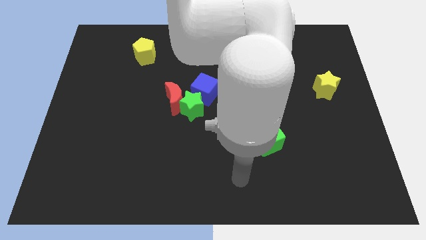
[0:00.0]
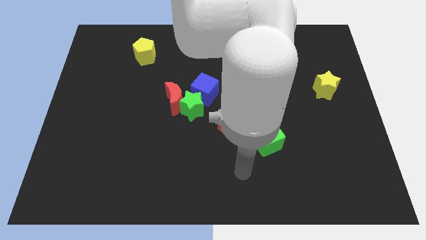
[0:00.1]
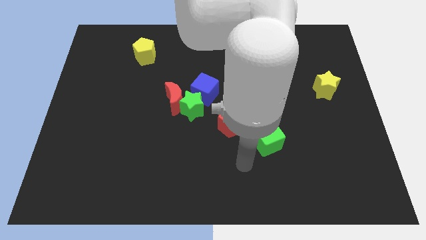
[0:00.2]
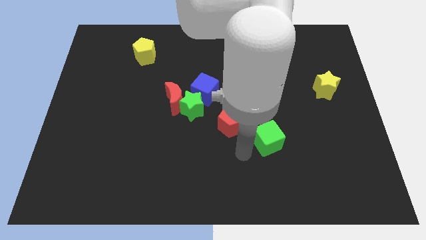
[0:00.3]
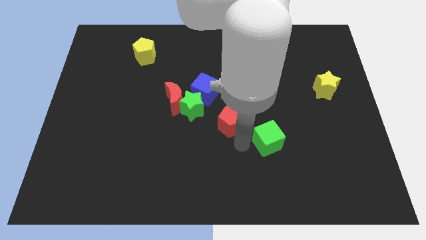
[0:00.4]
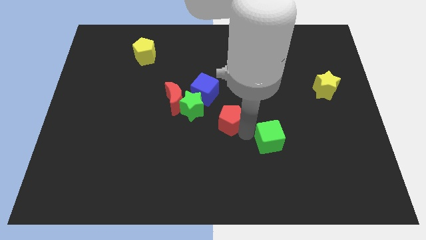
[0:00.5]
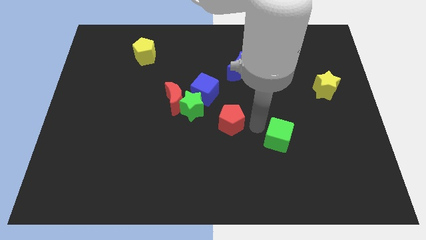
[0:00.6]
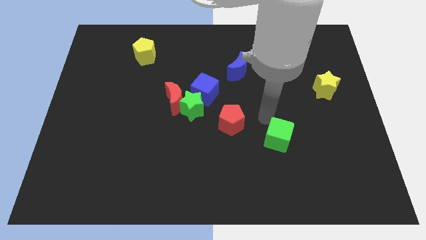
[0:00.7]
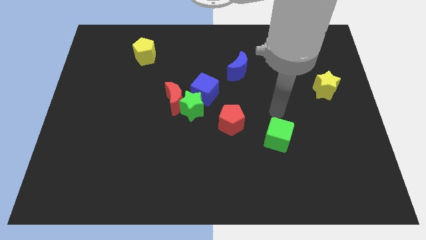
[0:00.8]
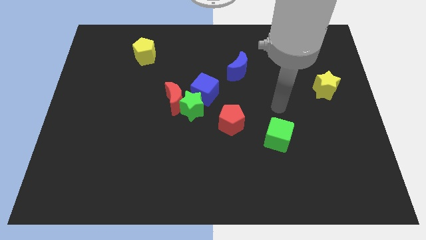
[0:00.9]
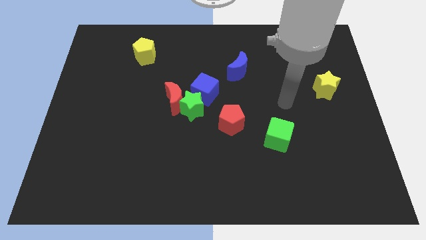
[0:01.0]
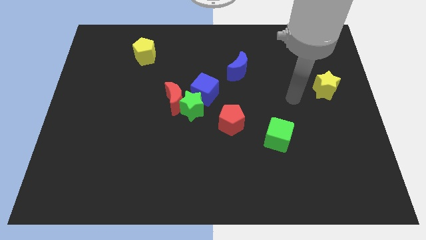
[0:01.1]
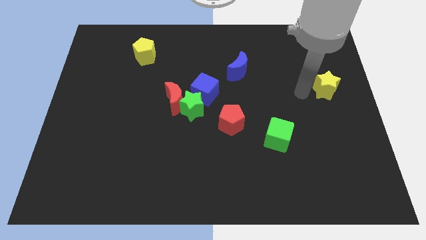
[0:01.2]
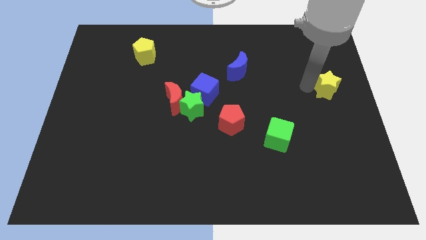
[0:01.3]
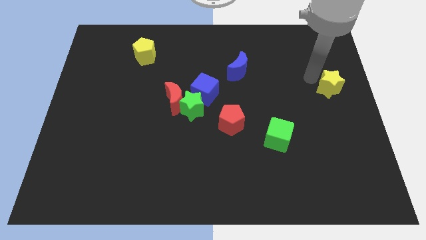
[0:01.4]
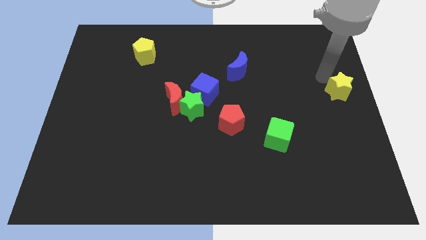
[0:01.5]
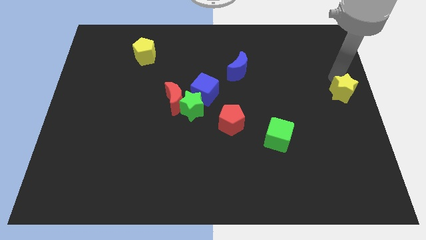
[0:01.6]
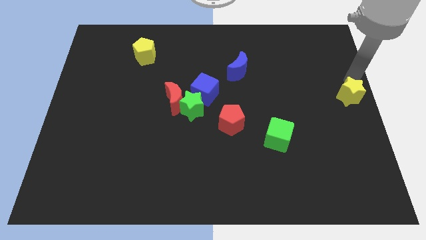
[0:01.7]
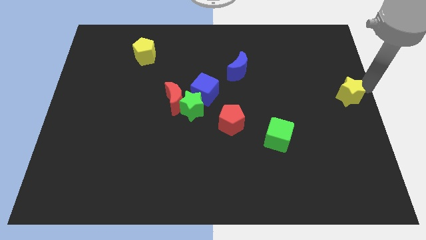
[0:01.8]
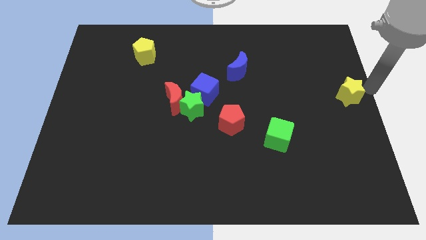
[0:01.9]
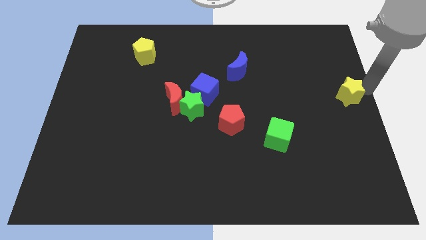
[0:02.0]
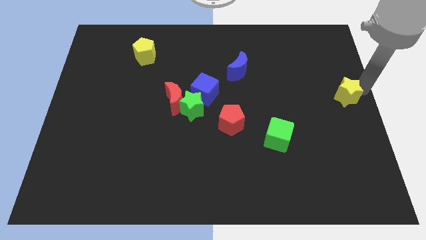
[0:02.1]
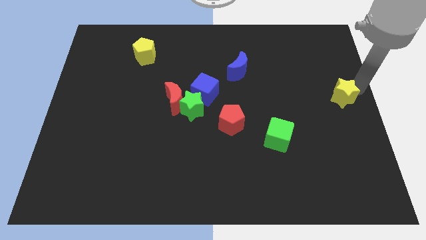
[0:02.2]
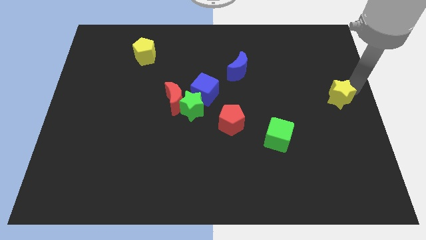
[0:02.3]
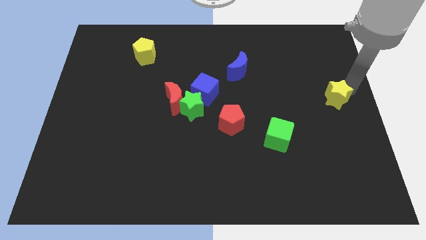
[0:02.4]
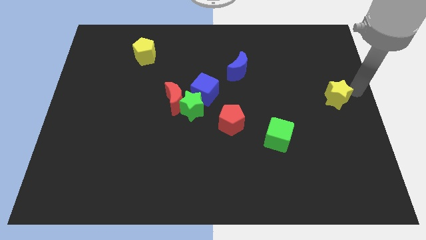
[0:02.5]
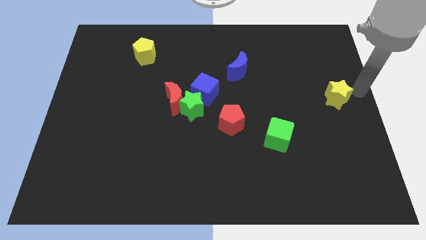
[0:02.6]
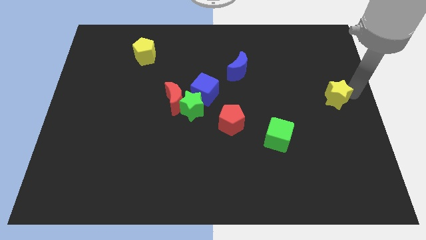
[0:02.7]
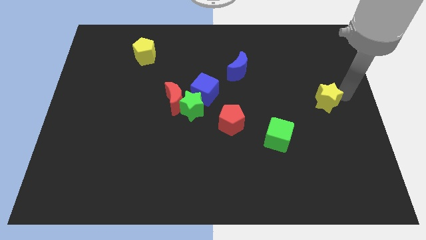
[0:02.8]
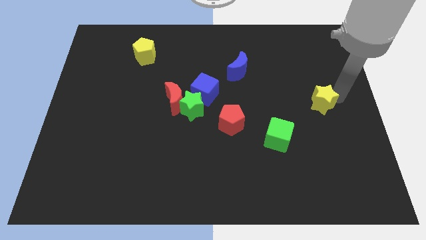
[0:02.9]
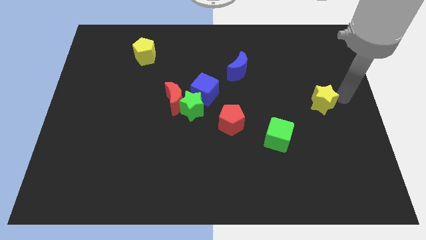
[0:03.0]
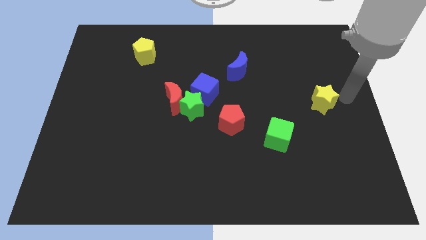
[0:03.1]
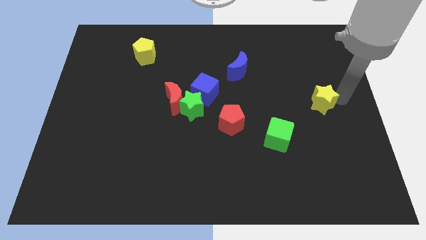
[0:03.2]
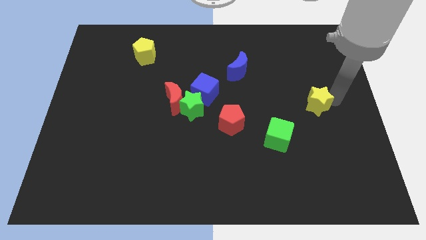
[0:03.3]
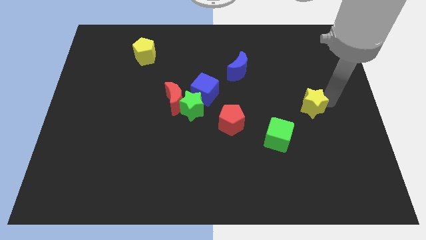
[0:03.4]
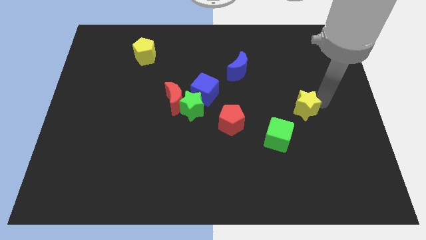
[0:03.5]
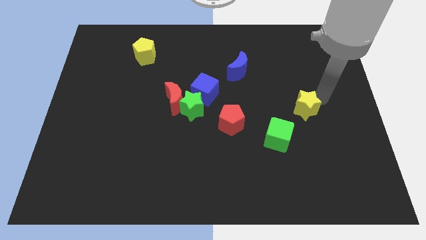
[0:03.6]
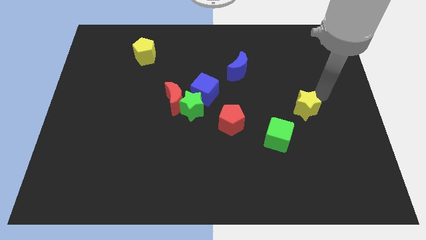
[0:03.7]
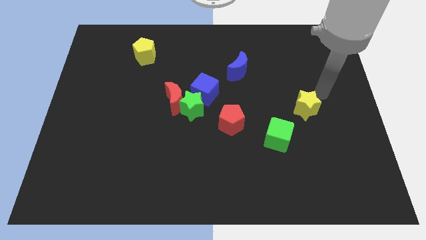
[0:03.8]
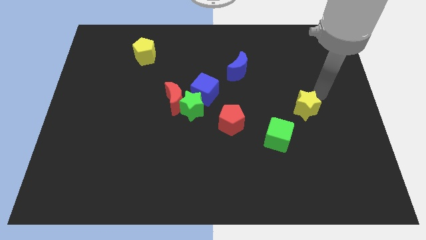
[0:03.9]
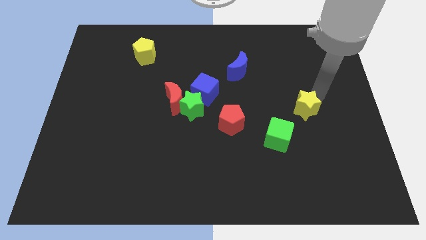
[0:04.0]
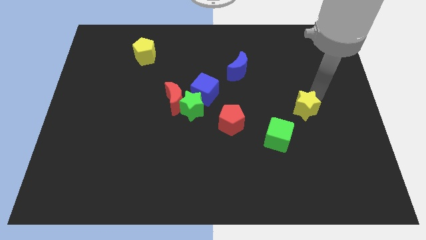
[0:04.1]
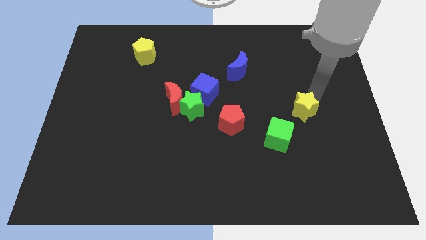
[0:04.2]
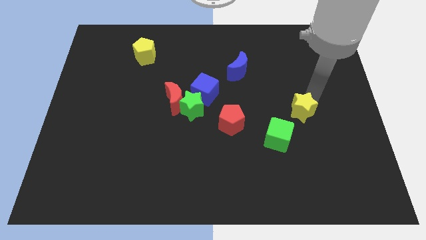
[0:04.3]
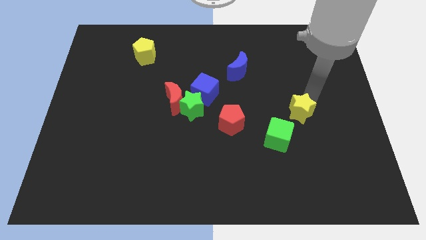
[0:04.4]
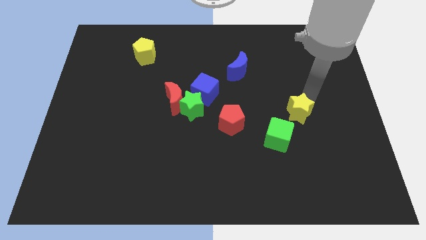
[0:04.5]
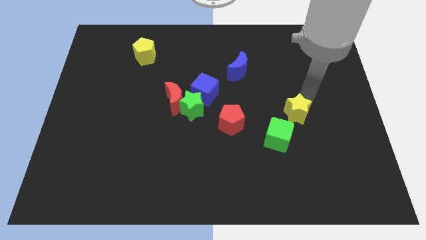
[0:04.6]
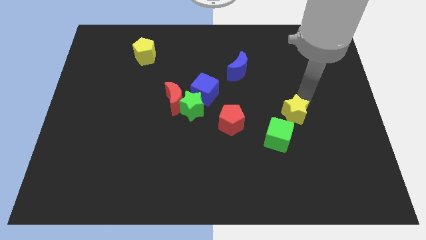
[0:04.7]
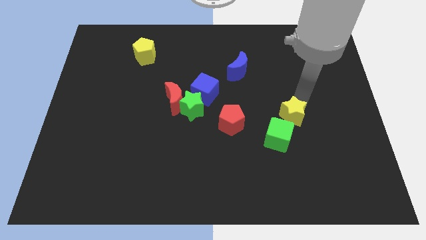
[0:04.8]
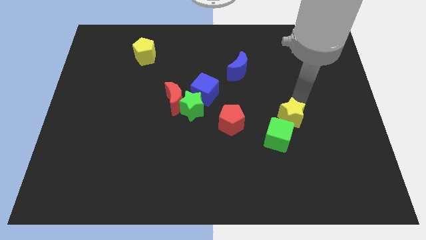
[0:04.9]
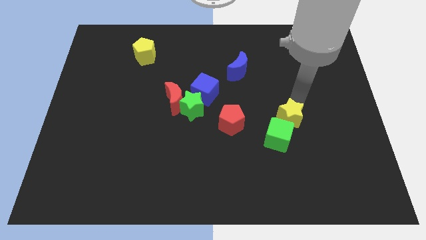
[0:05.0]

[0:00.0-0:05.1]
put the yellow star close to the green cube

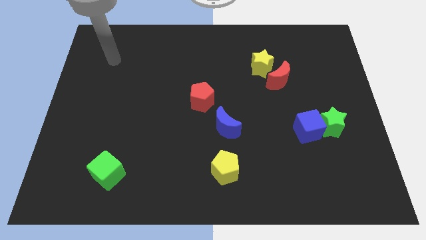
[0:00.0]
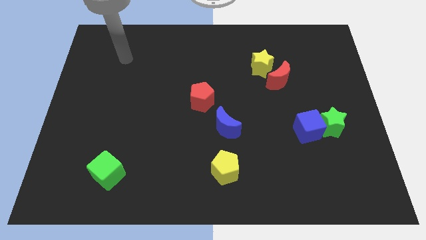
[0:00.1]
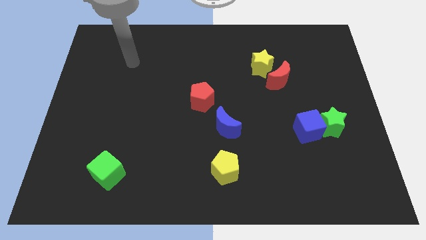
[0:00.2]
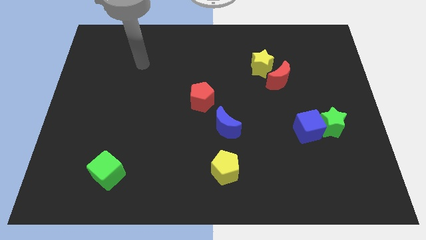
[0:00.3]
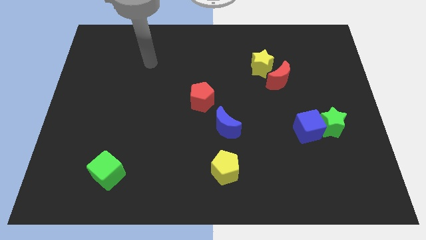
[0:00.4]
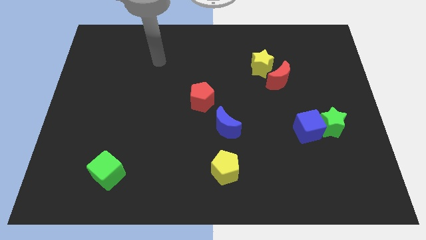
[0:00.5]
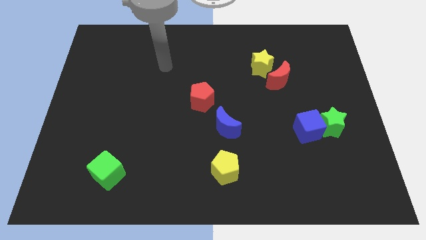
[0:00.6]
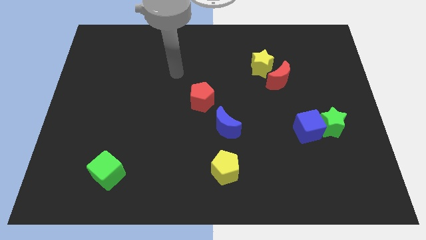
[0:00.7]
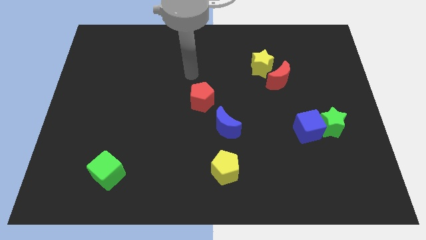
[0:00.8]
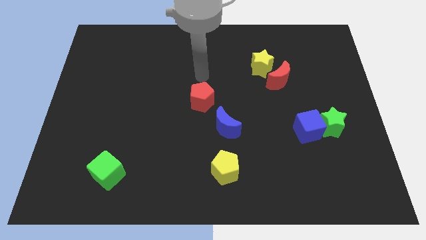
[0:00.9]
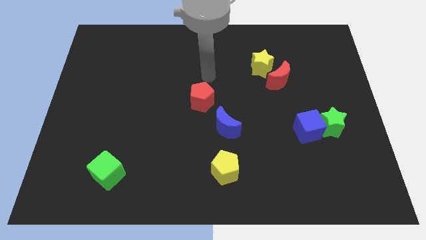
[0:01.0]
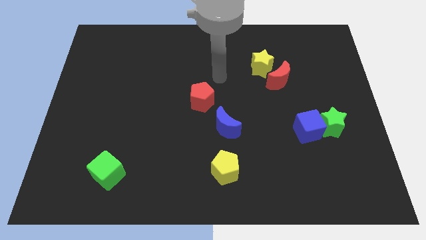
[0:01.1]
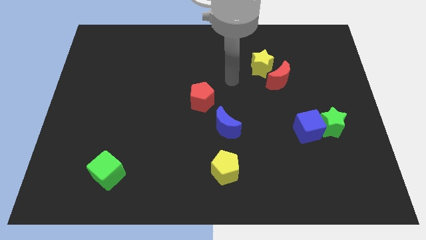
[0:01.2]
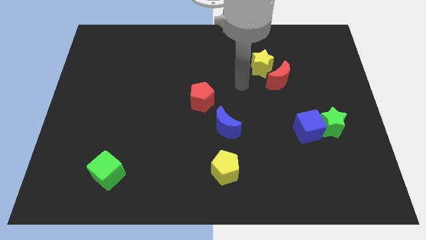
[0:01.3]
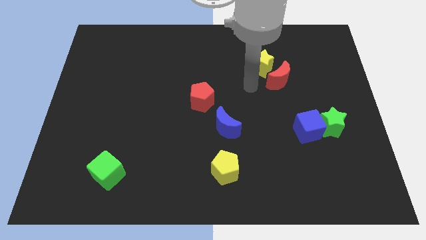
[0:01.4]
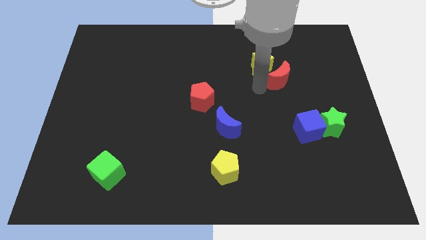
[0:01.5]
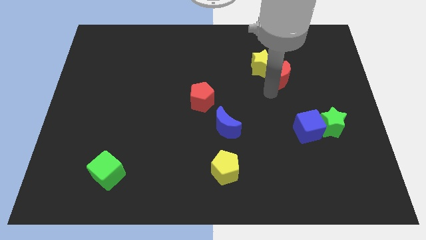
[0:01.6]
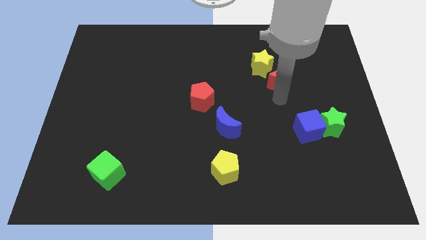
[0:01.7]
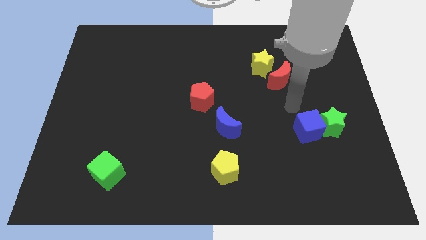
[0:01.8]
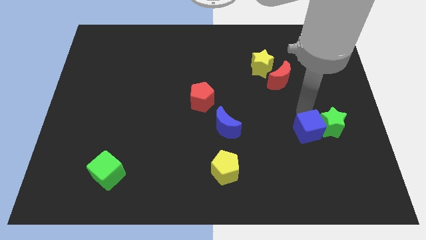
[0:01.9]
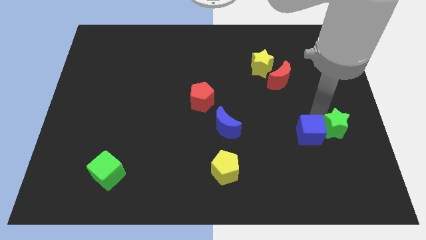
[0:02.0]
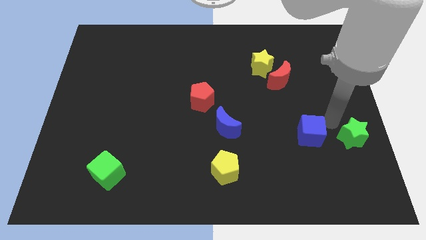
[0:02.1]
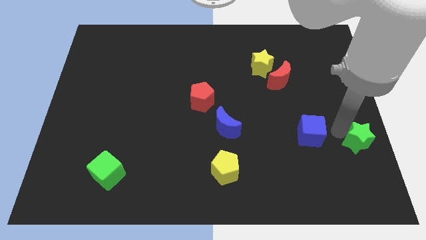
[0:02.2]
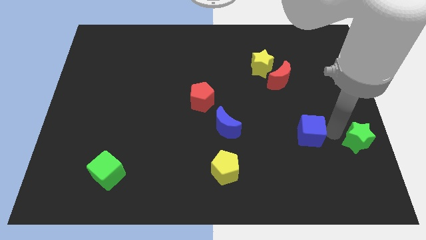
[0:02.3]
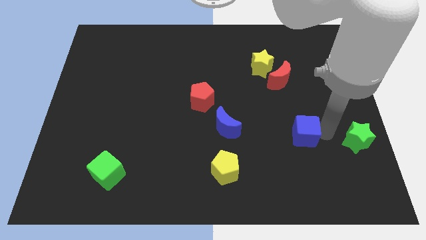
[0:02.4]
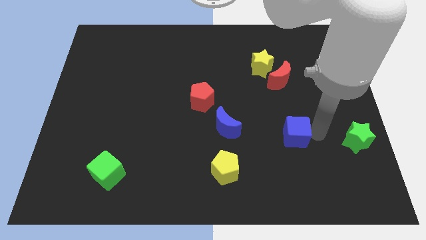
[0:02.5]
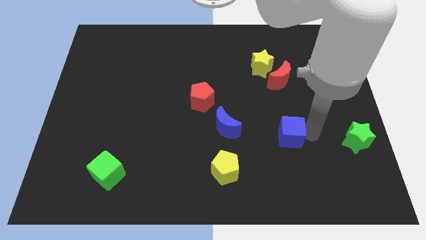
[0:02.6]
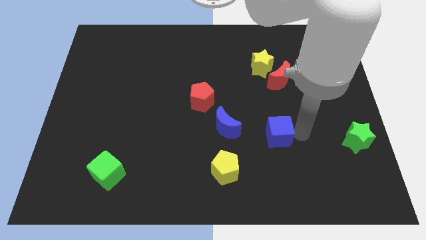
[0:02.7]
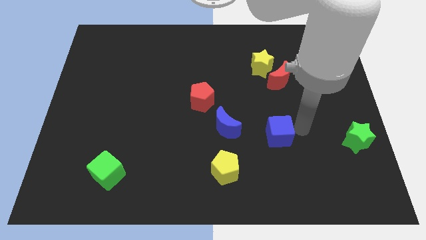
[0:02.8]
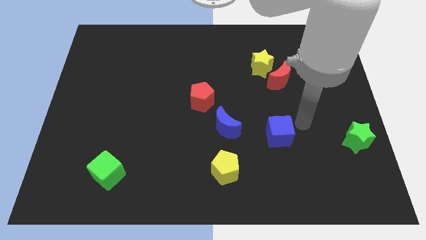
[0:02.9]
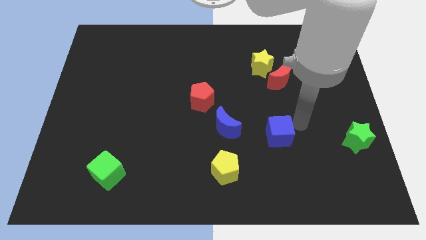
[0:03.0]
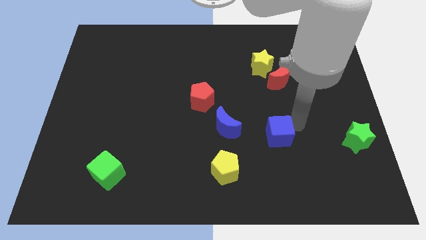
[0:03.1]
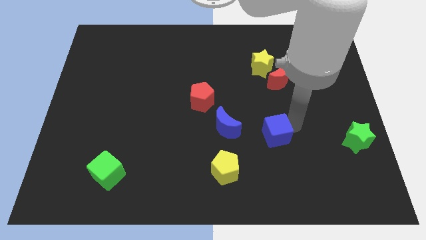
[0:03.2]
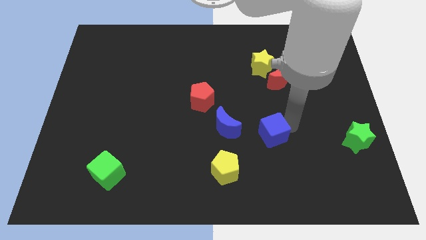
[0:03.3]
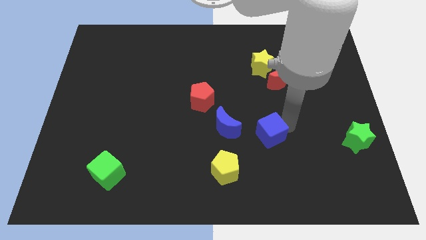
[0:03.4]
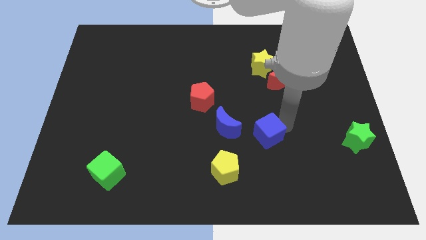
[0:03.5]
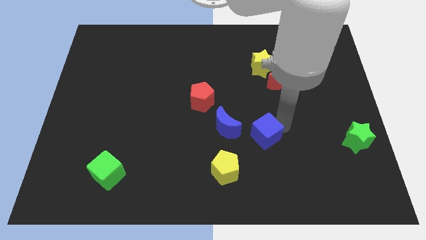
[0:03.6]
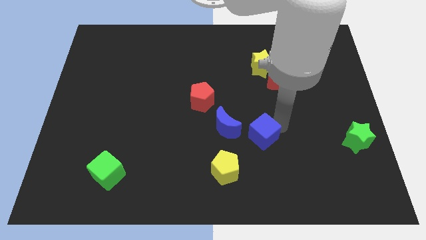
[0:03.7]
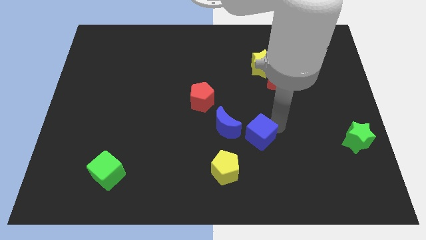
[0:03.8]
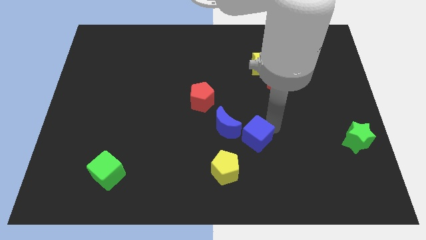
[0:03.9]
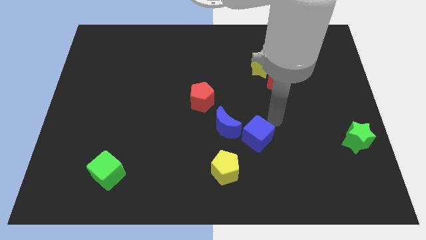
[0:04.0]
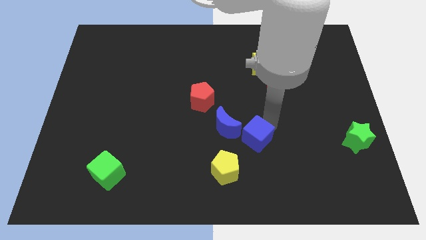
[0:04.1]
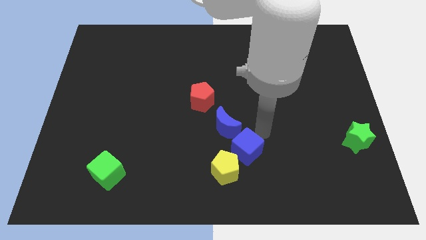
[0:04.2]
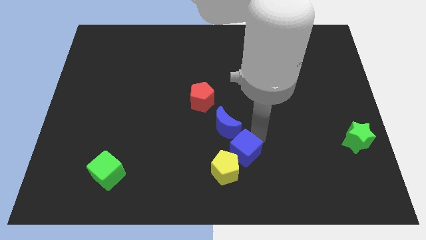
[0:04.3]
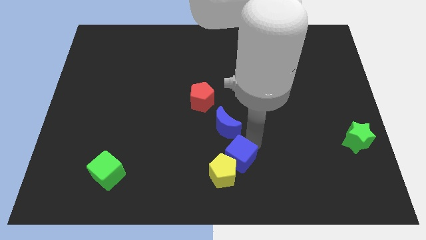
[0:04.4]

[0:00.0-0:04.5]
slide the blue cube next to the yellow pentagon
